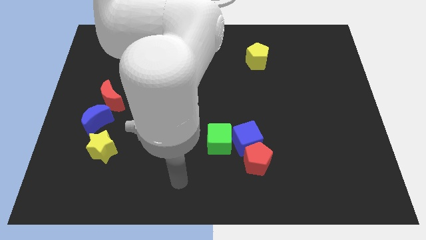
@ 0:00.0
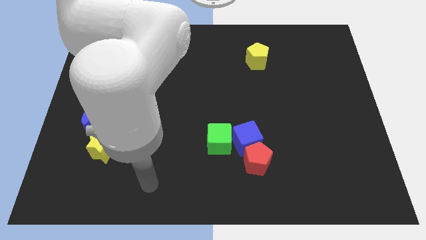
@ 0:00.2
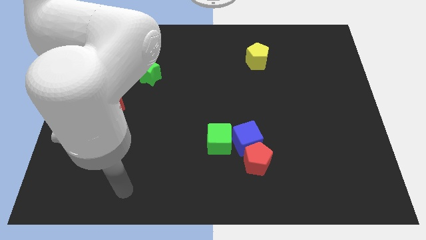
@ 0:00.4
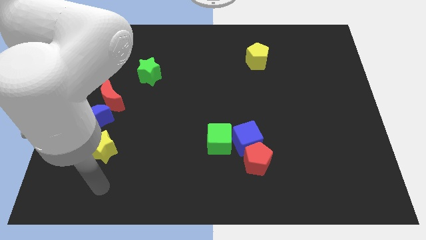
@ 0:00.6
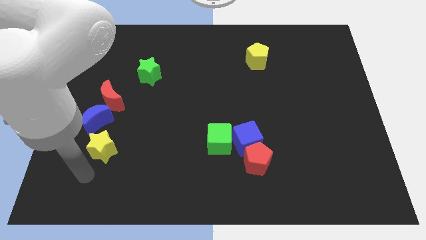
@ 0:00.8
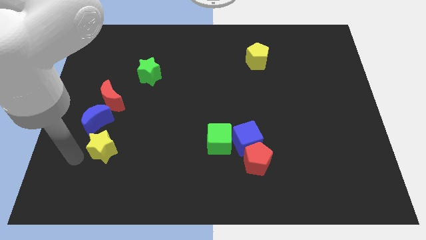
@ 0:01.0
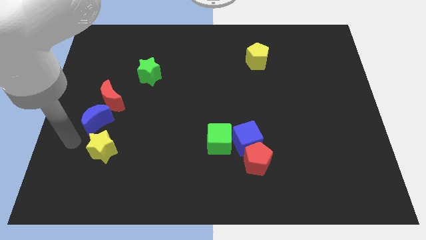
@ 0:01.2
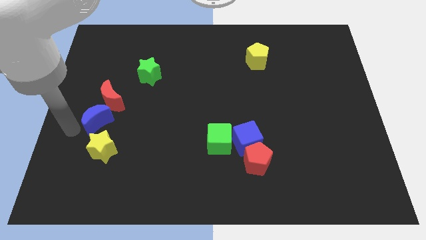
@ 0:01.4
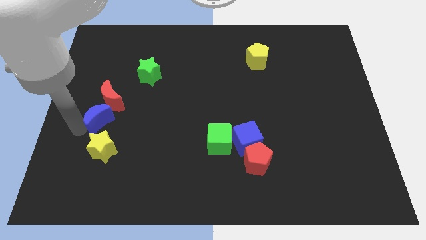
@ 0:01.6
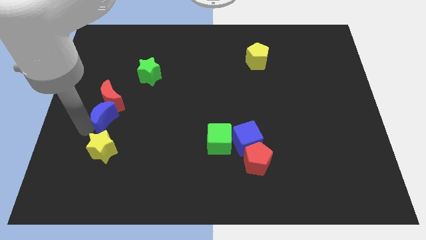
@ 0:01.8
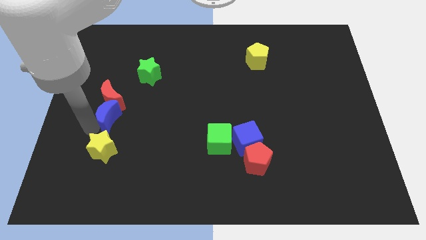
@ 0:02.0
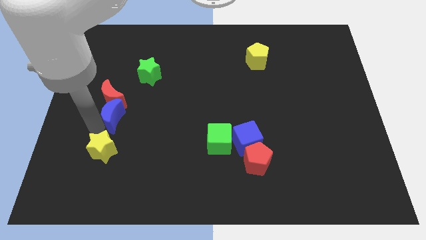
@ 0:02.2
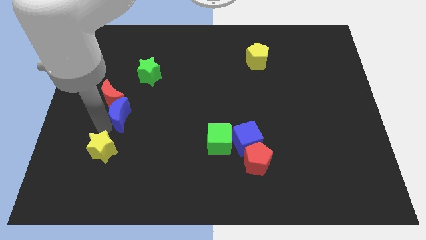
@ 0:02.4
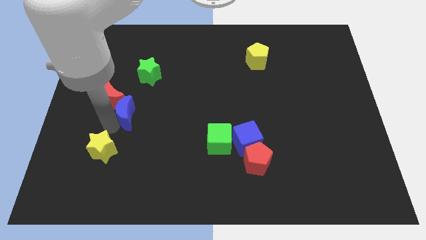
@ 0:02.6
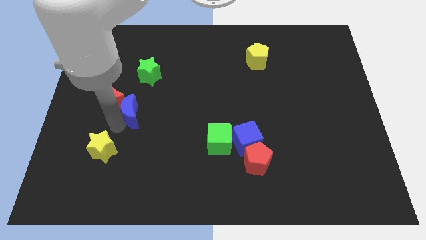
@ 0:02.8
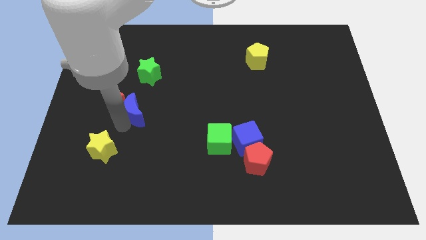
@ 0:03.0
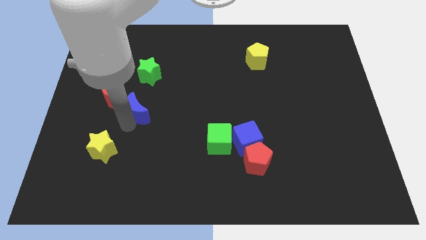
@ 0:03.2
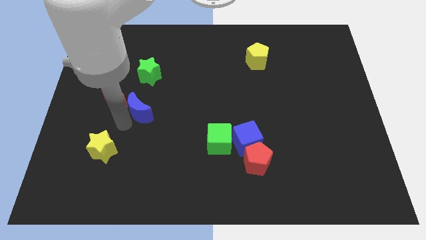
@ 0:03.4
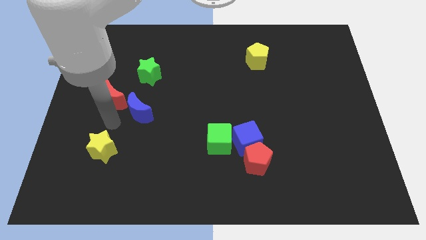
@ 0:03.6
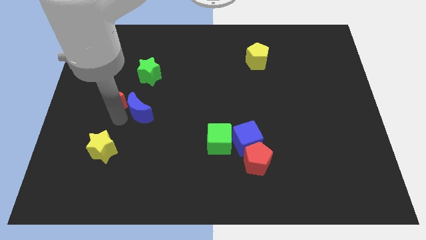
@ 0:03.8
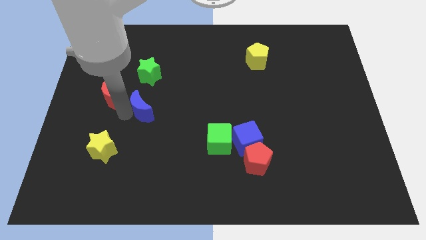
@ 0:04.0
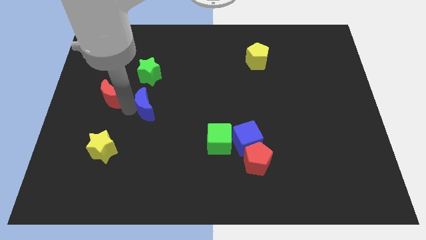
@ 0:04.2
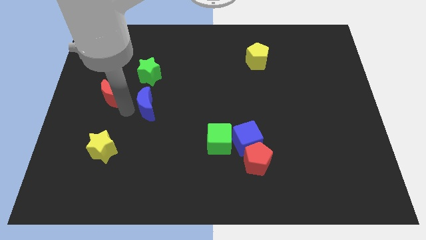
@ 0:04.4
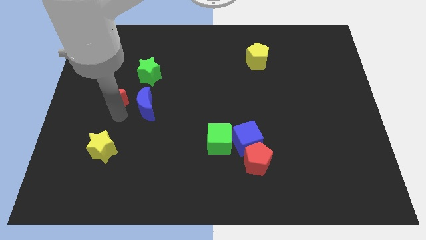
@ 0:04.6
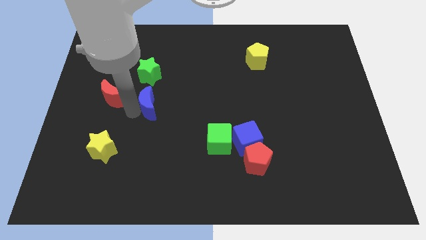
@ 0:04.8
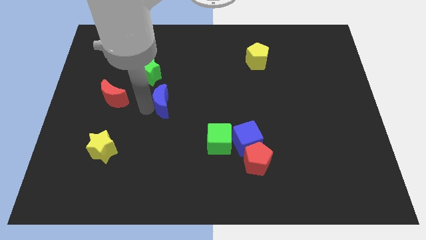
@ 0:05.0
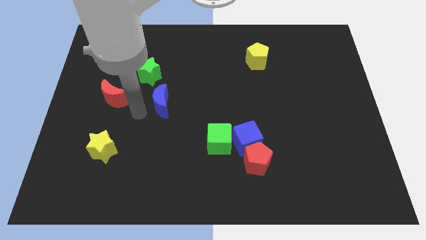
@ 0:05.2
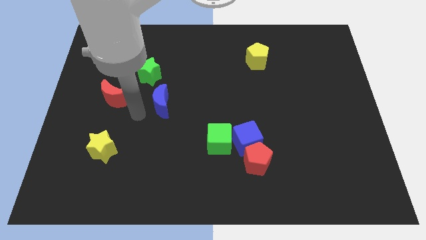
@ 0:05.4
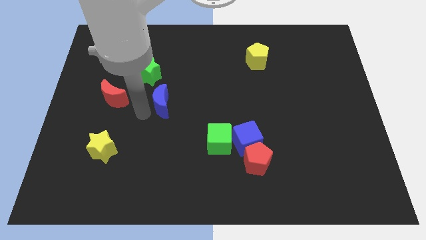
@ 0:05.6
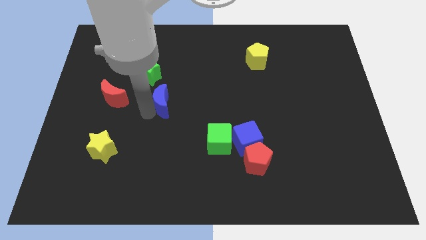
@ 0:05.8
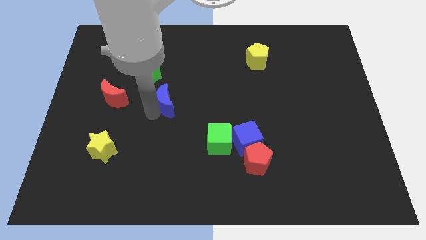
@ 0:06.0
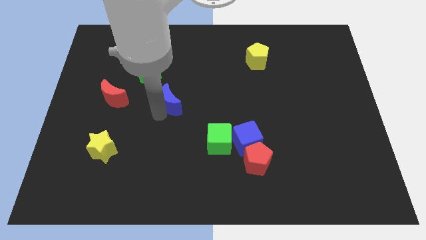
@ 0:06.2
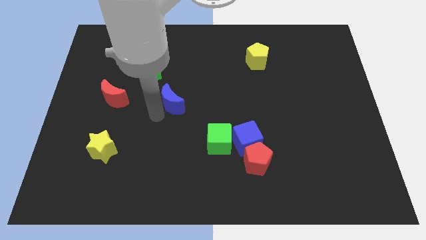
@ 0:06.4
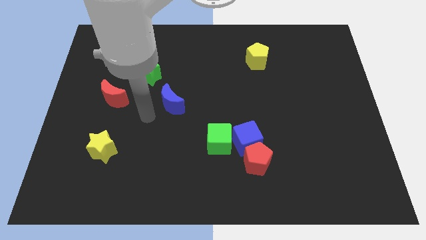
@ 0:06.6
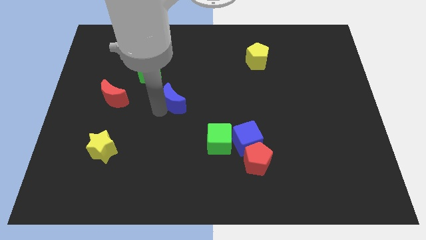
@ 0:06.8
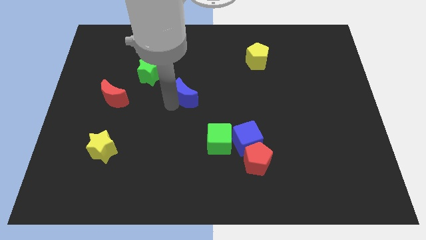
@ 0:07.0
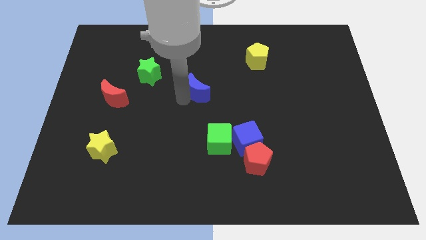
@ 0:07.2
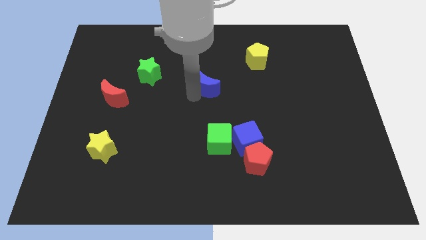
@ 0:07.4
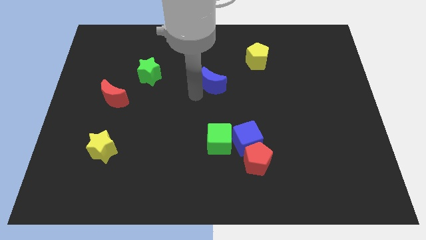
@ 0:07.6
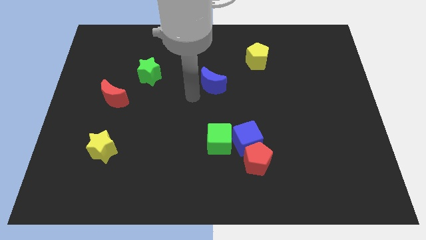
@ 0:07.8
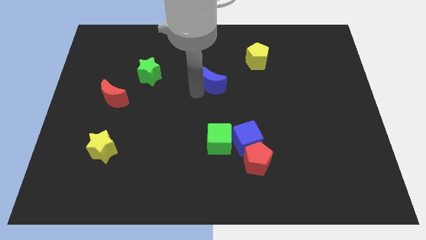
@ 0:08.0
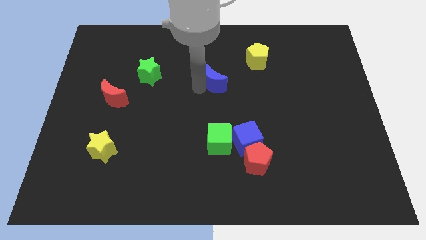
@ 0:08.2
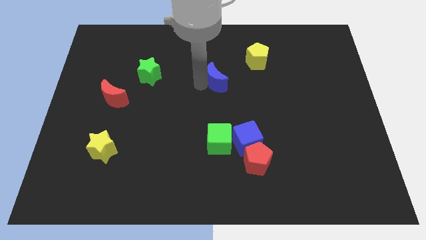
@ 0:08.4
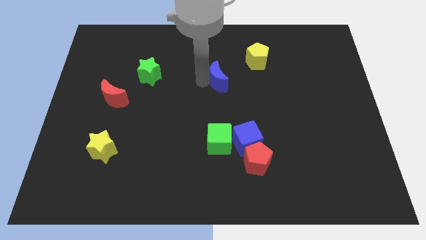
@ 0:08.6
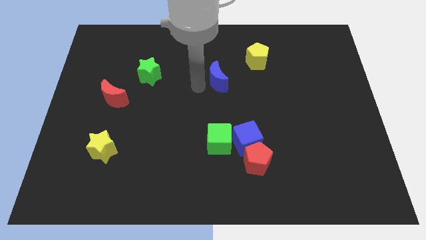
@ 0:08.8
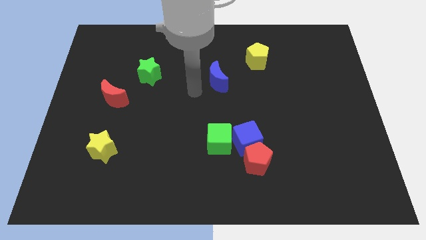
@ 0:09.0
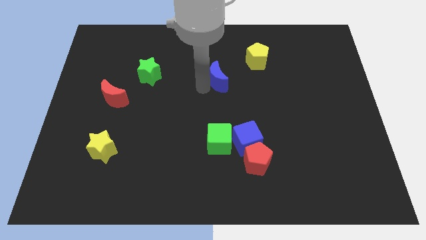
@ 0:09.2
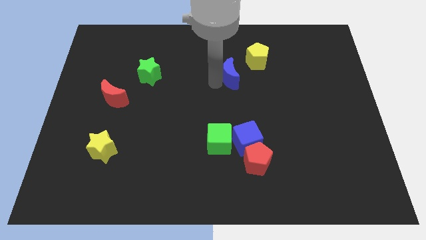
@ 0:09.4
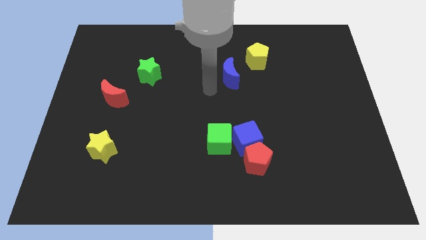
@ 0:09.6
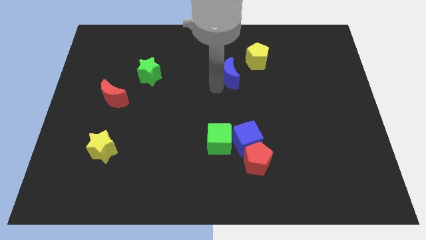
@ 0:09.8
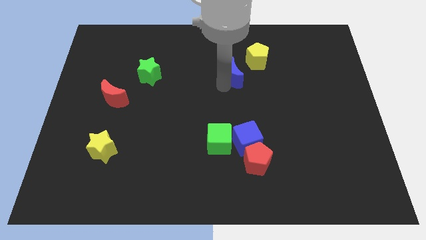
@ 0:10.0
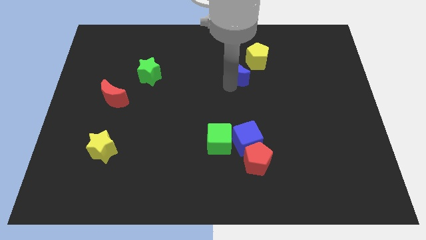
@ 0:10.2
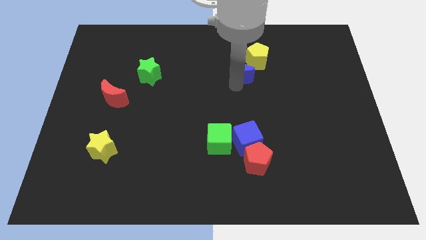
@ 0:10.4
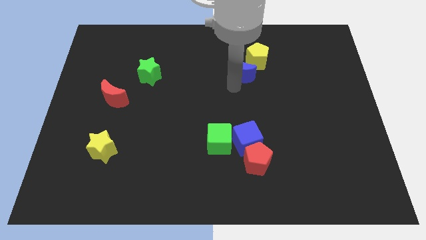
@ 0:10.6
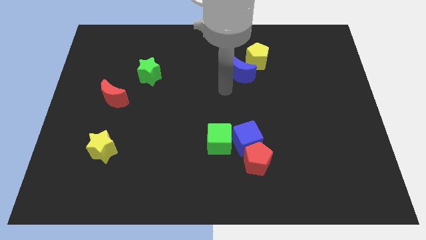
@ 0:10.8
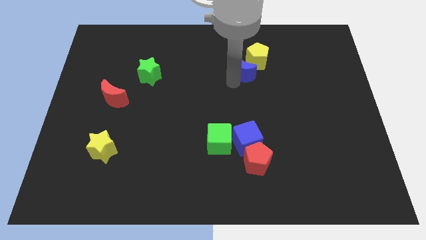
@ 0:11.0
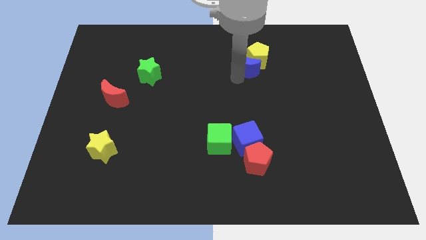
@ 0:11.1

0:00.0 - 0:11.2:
move the blue moon close to the yellow pentagon

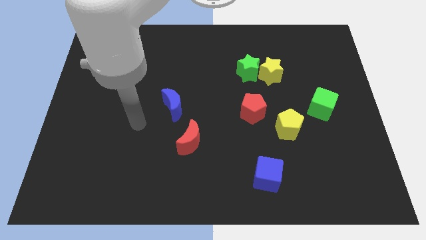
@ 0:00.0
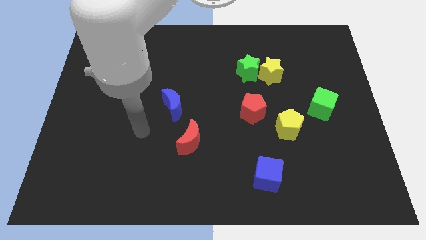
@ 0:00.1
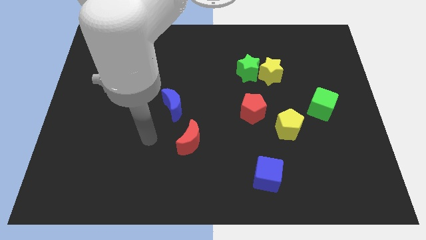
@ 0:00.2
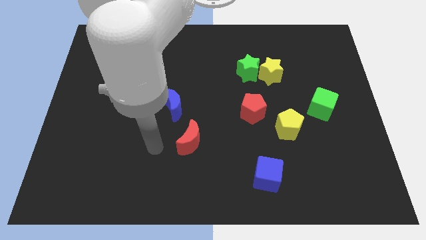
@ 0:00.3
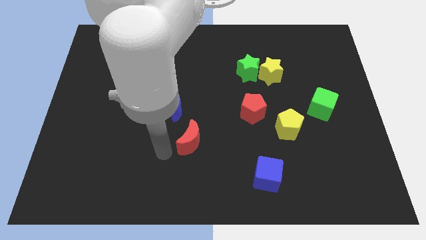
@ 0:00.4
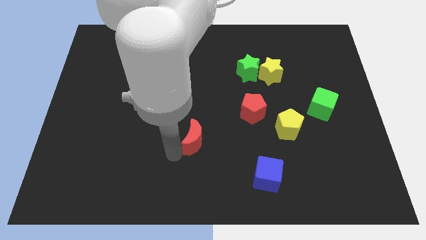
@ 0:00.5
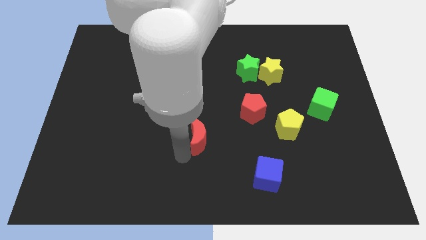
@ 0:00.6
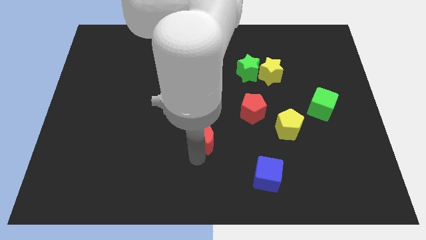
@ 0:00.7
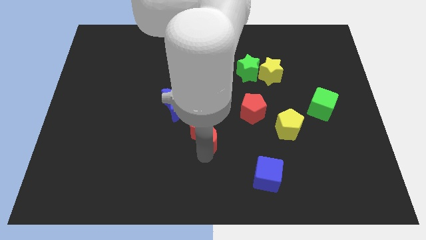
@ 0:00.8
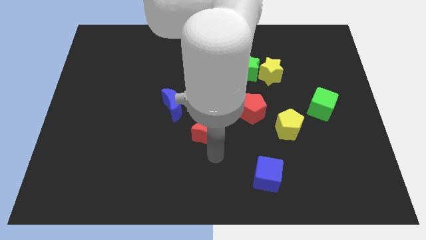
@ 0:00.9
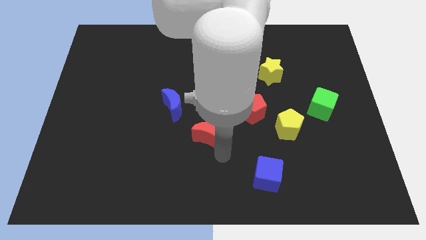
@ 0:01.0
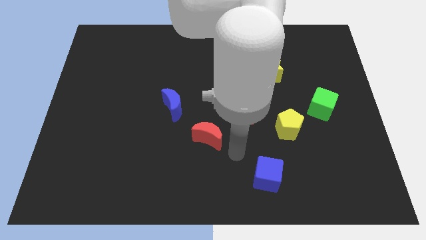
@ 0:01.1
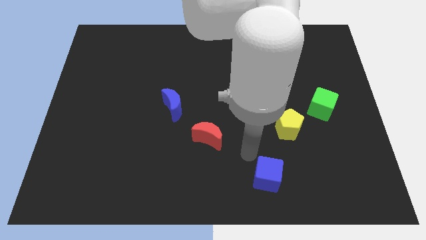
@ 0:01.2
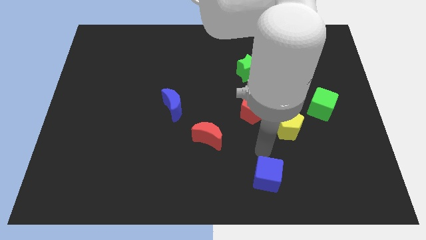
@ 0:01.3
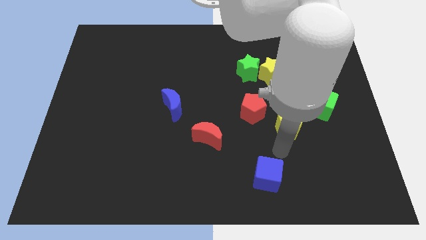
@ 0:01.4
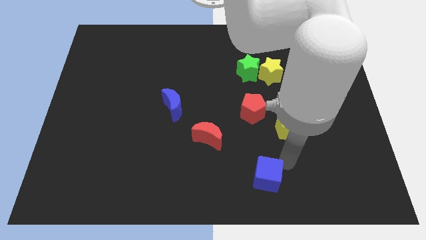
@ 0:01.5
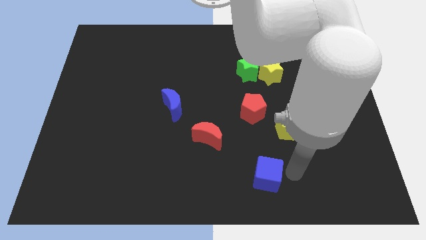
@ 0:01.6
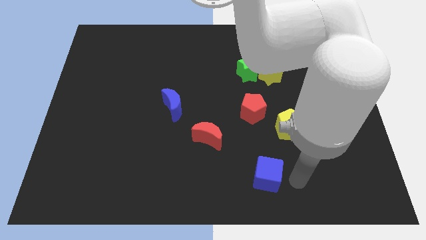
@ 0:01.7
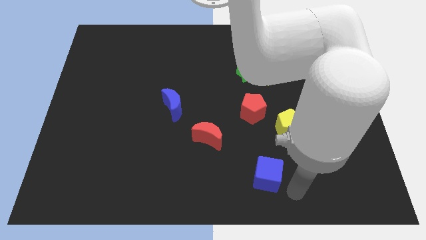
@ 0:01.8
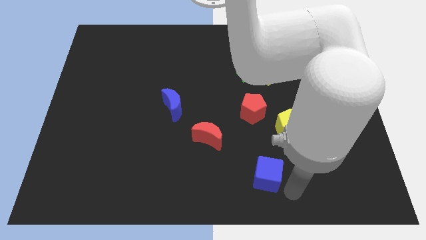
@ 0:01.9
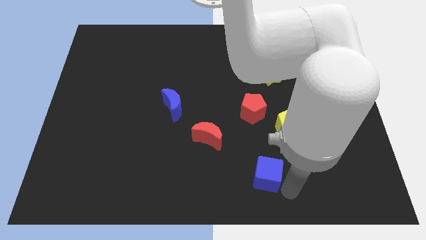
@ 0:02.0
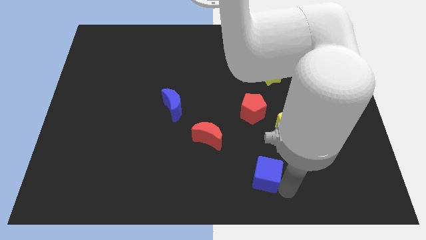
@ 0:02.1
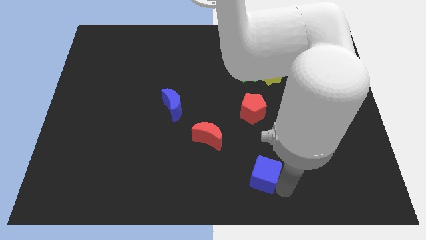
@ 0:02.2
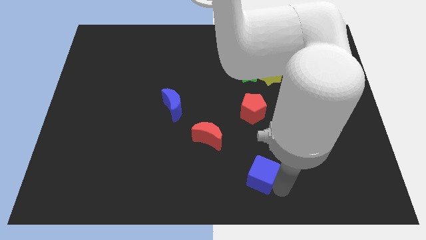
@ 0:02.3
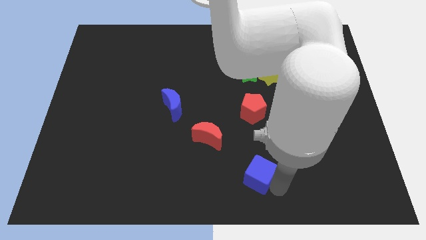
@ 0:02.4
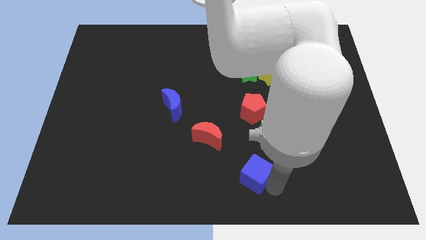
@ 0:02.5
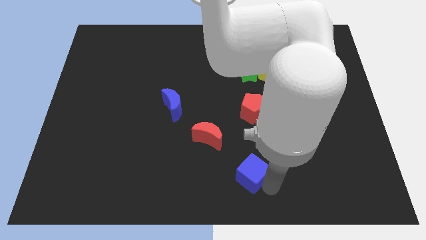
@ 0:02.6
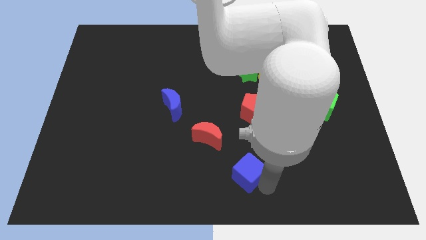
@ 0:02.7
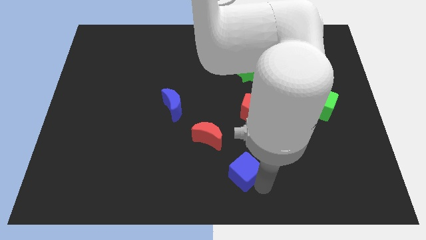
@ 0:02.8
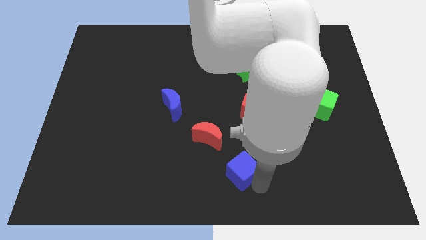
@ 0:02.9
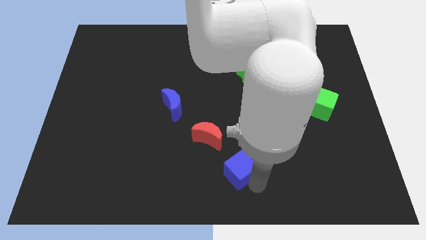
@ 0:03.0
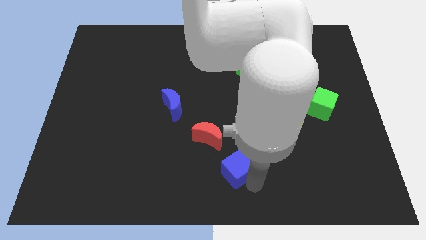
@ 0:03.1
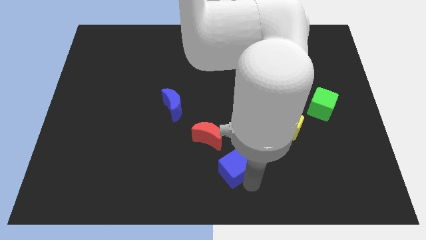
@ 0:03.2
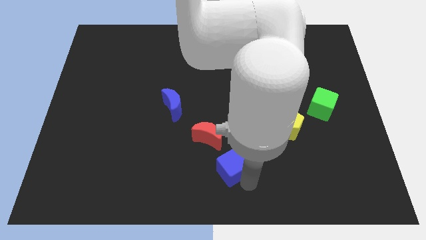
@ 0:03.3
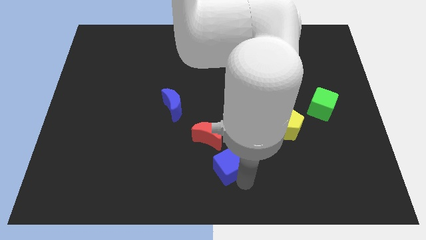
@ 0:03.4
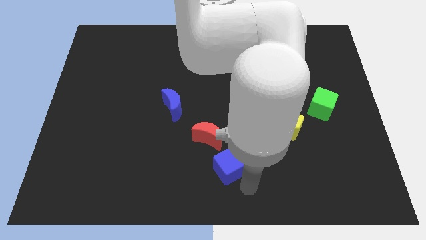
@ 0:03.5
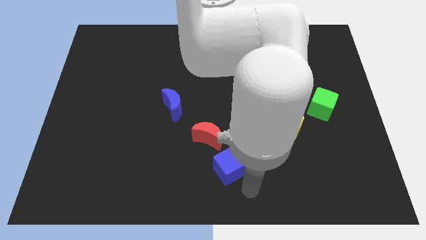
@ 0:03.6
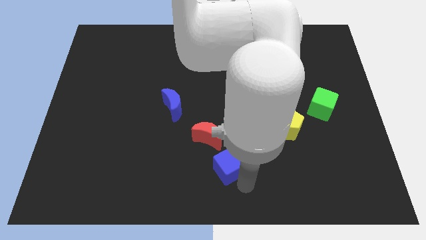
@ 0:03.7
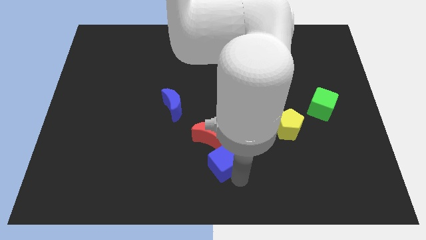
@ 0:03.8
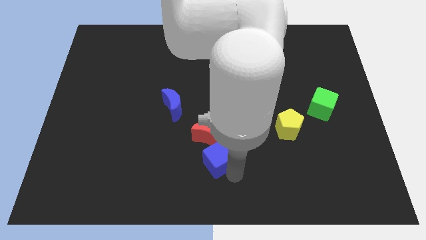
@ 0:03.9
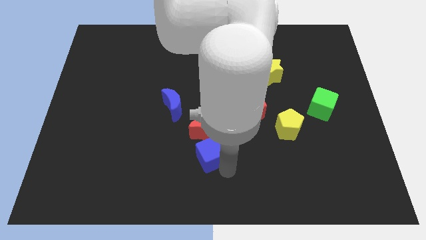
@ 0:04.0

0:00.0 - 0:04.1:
push the blue cube close to the red moon
